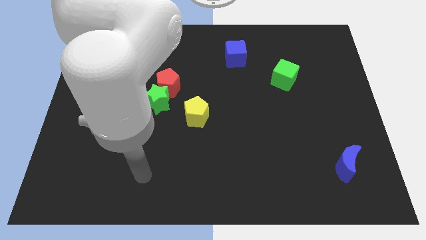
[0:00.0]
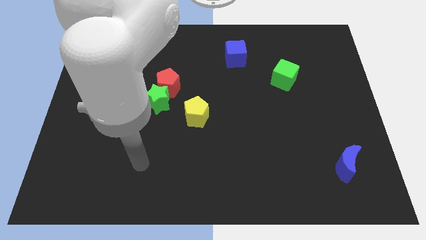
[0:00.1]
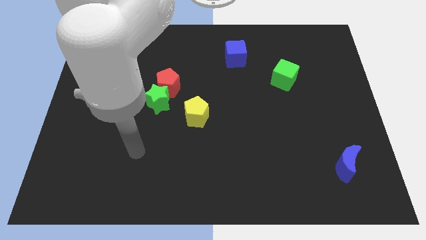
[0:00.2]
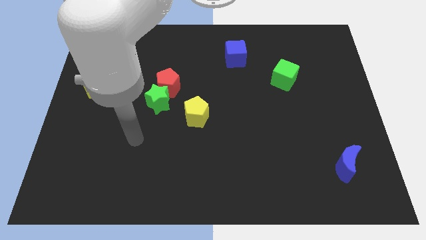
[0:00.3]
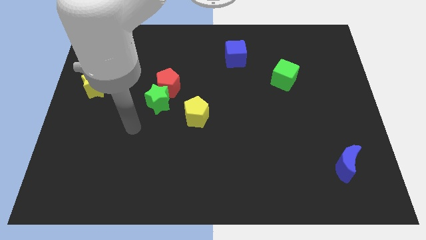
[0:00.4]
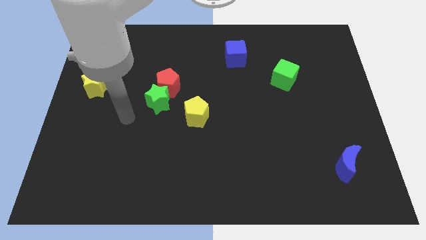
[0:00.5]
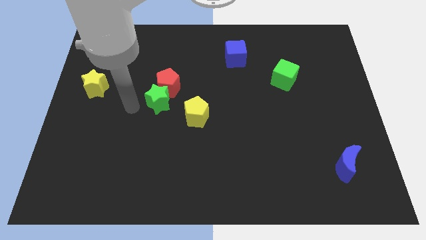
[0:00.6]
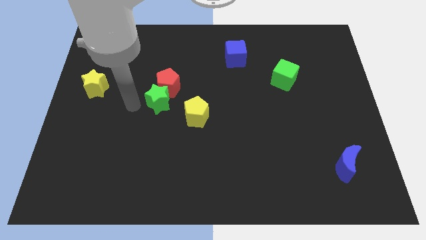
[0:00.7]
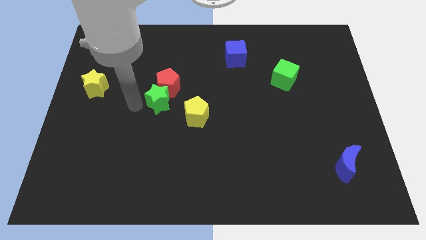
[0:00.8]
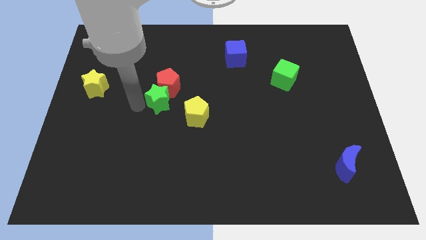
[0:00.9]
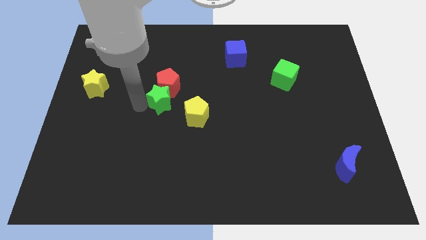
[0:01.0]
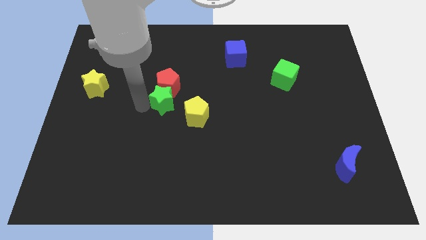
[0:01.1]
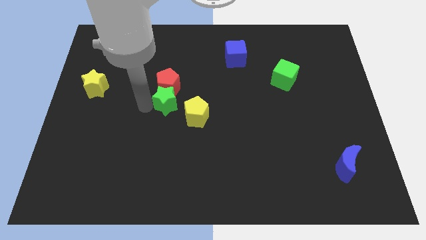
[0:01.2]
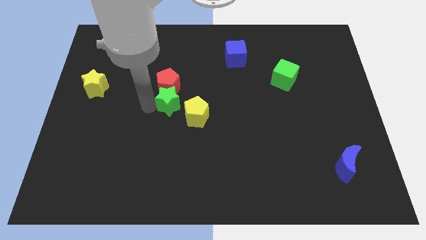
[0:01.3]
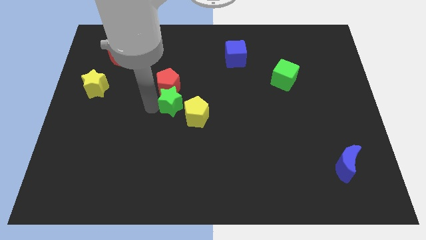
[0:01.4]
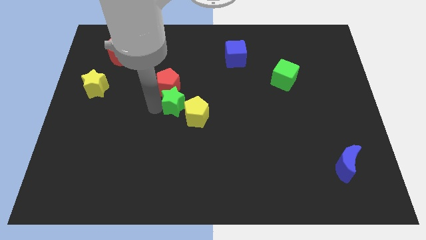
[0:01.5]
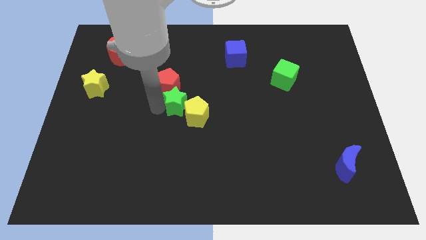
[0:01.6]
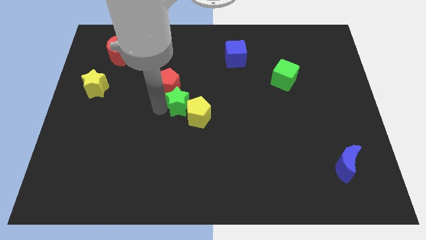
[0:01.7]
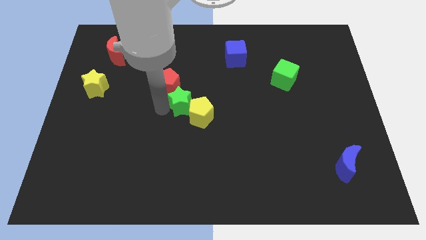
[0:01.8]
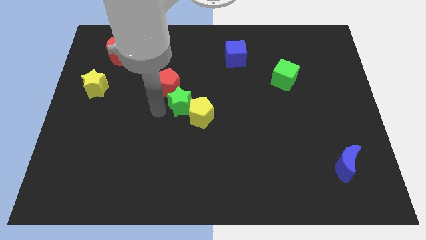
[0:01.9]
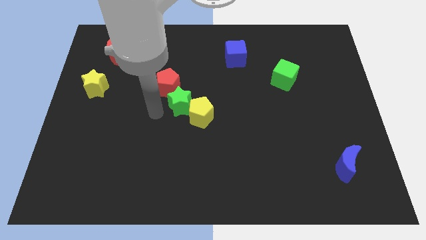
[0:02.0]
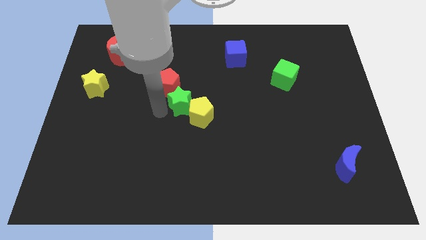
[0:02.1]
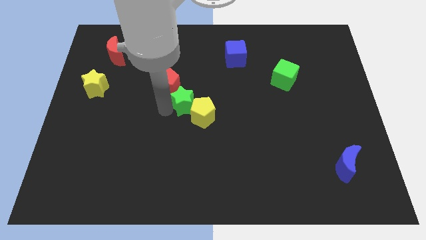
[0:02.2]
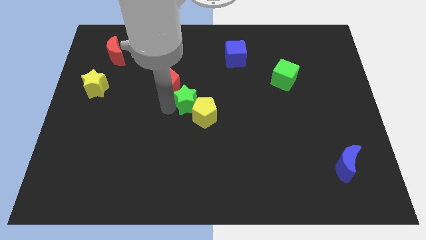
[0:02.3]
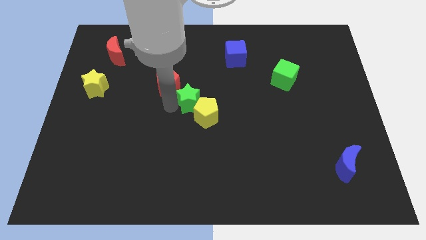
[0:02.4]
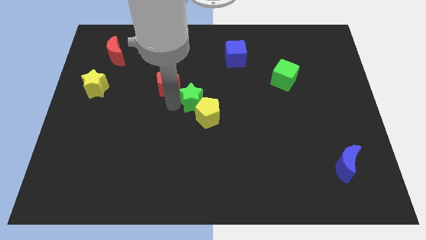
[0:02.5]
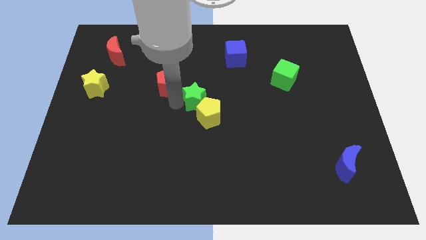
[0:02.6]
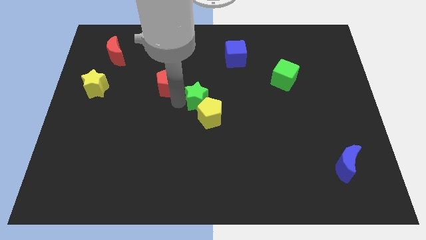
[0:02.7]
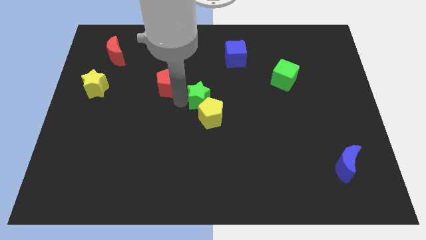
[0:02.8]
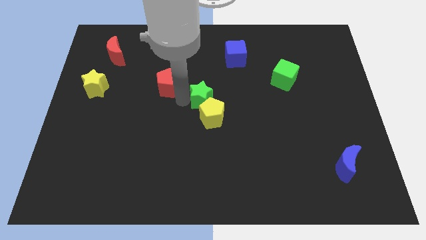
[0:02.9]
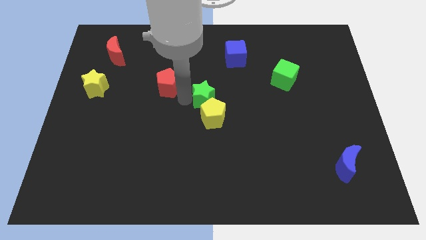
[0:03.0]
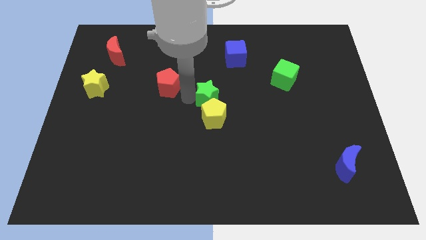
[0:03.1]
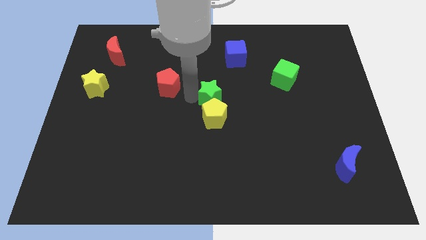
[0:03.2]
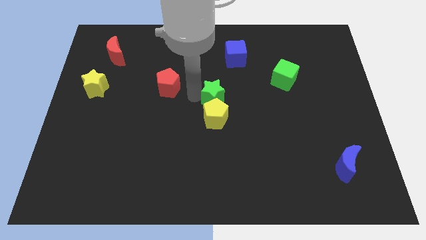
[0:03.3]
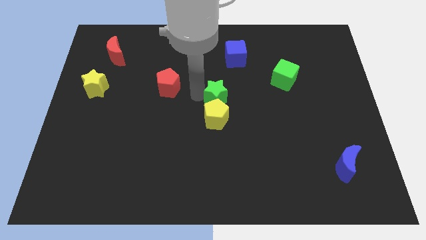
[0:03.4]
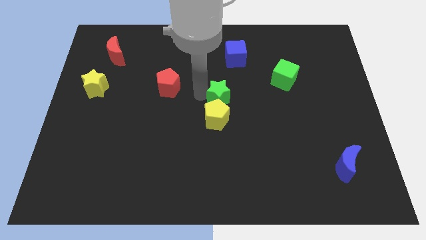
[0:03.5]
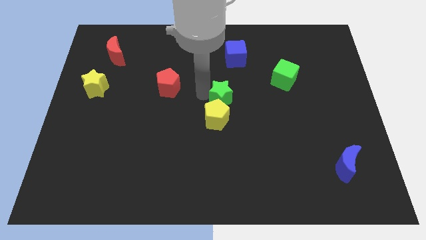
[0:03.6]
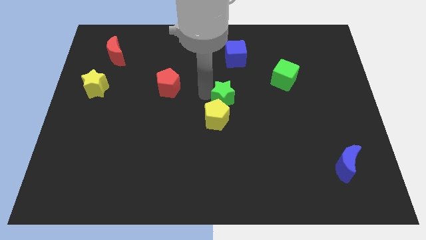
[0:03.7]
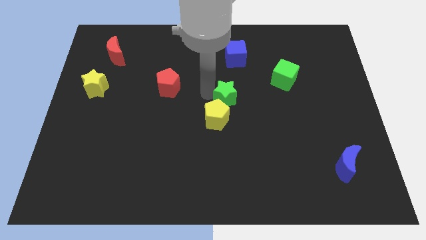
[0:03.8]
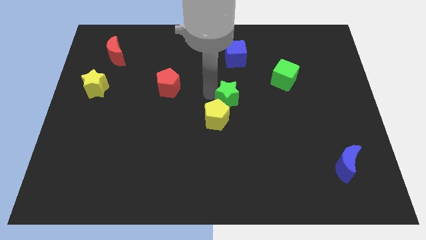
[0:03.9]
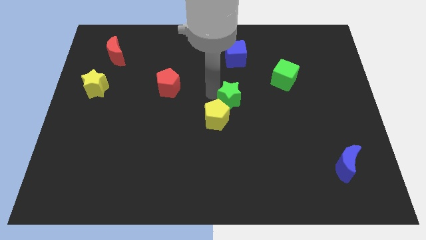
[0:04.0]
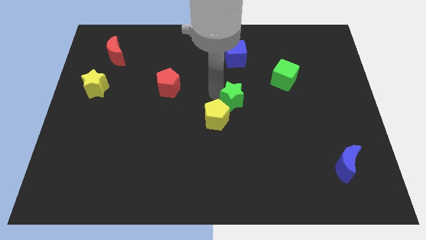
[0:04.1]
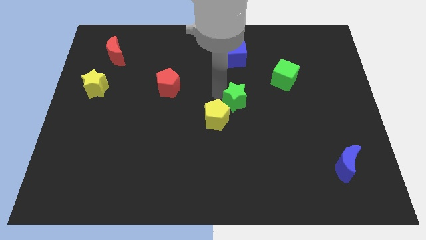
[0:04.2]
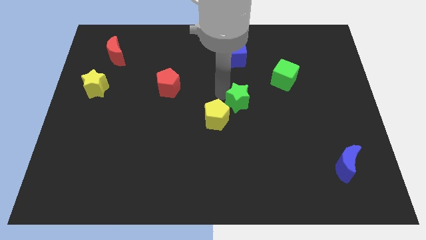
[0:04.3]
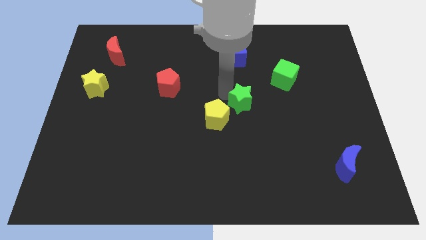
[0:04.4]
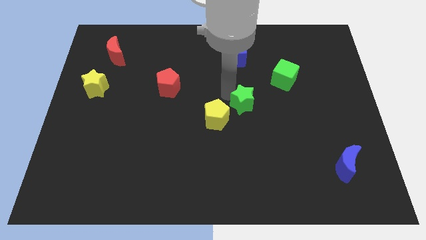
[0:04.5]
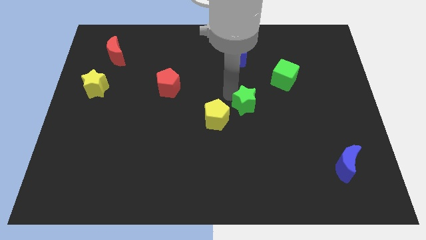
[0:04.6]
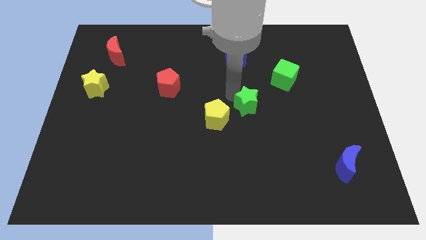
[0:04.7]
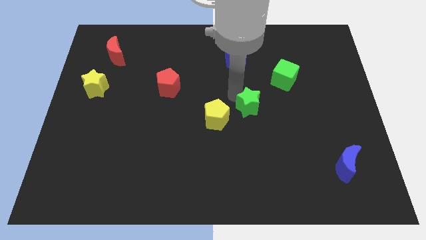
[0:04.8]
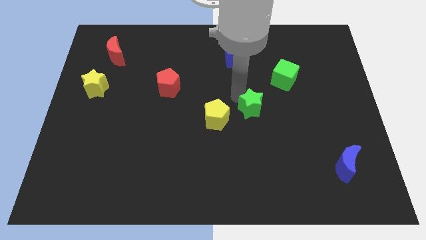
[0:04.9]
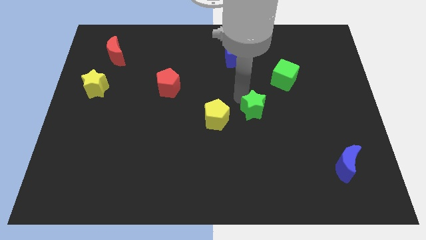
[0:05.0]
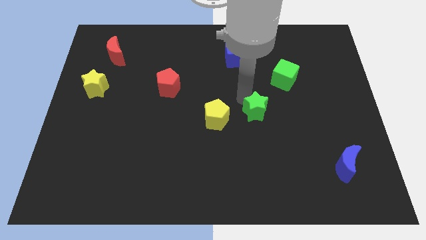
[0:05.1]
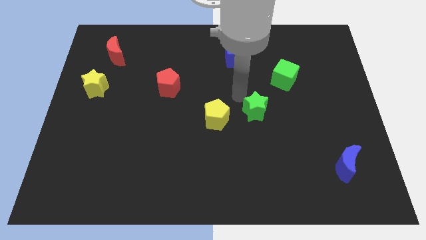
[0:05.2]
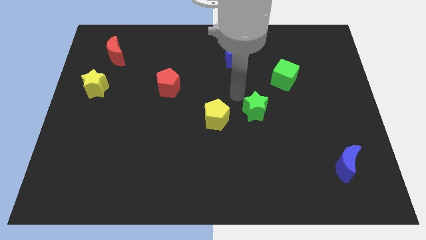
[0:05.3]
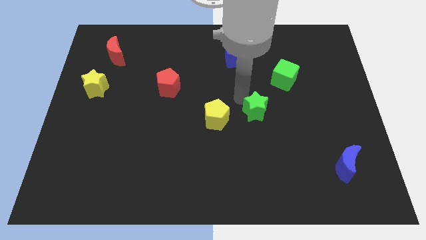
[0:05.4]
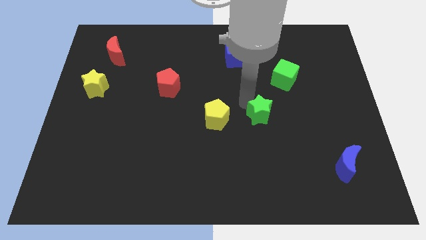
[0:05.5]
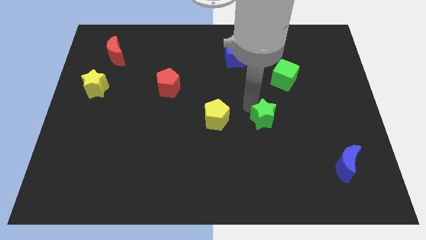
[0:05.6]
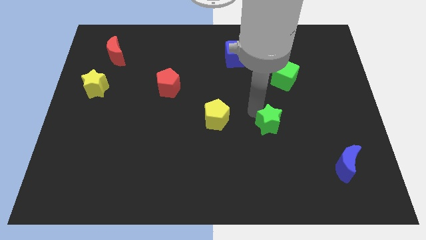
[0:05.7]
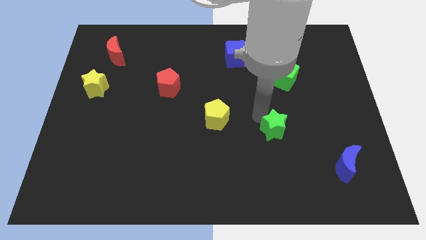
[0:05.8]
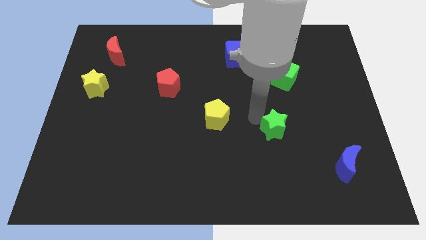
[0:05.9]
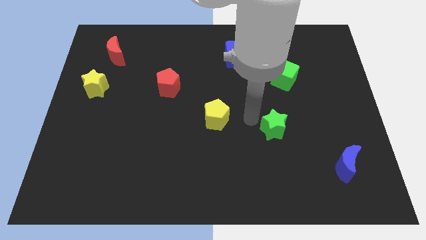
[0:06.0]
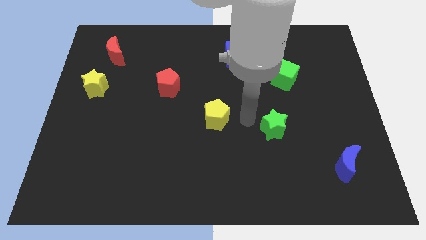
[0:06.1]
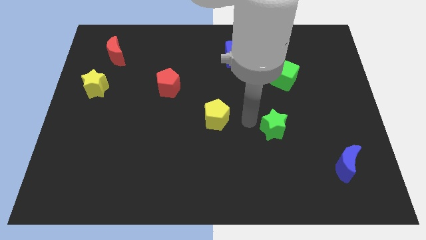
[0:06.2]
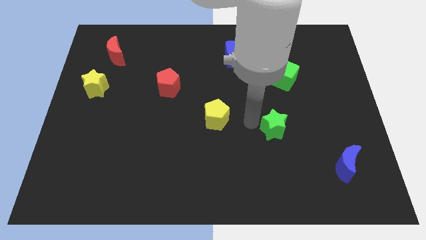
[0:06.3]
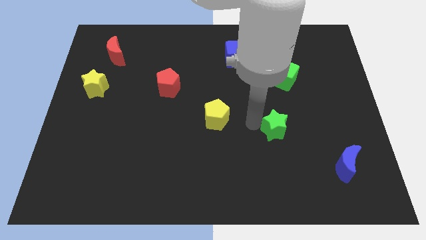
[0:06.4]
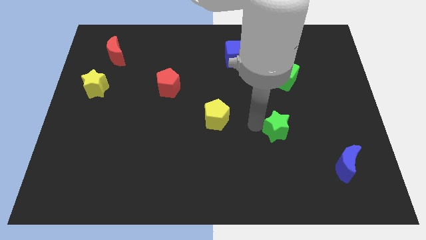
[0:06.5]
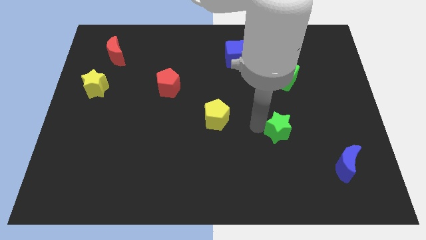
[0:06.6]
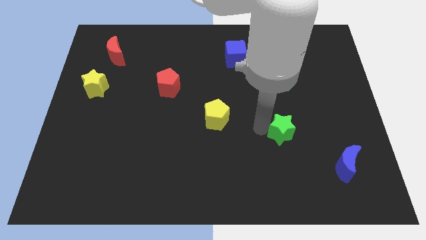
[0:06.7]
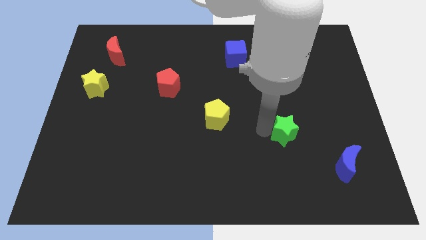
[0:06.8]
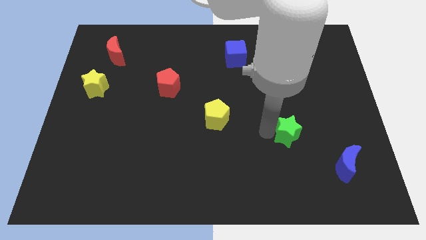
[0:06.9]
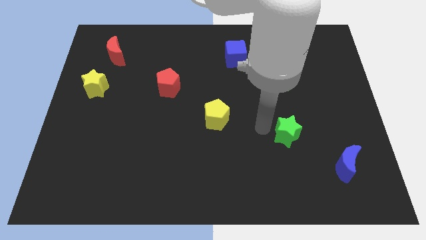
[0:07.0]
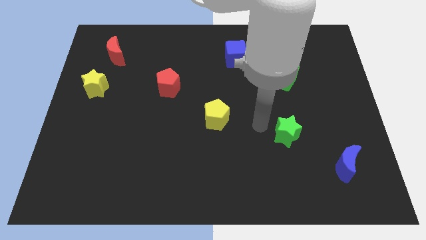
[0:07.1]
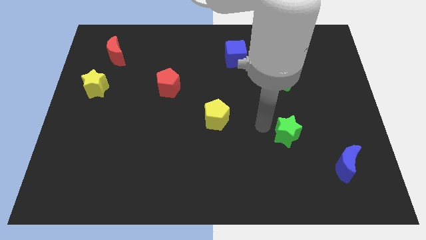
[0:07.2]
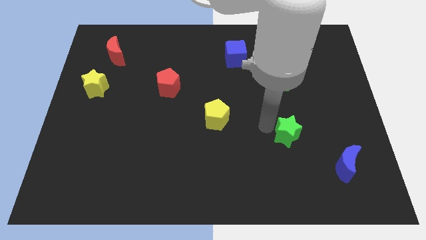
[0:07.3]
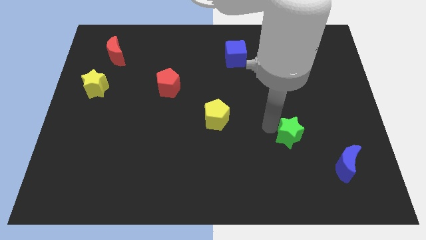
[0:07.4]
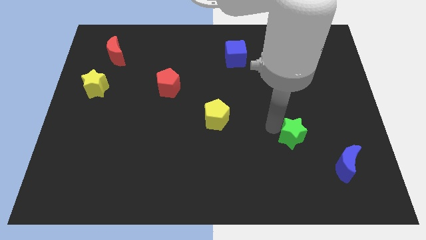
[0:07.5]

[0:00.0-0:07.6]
push the green star to the top left of the blue moon
